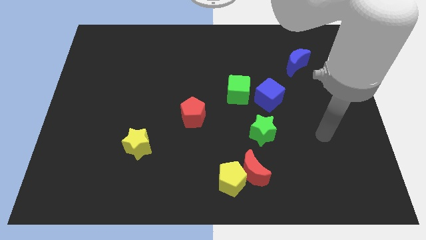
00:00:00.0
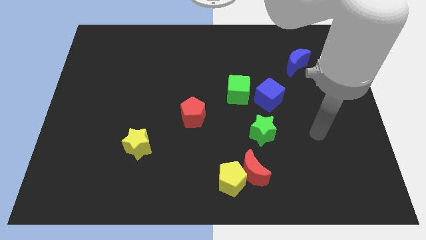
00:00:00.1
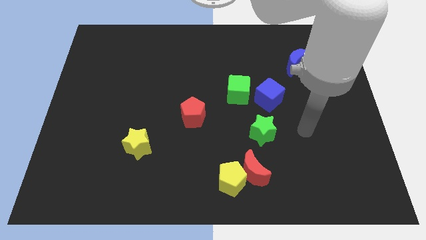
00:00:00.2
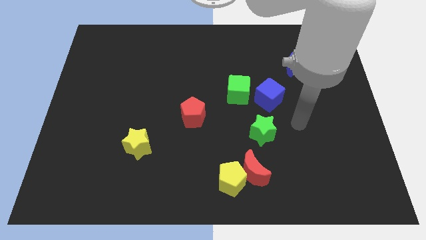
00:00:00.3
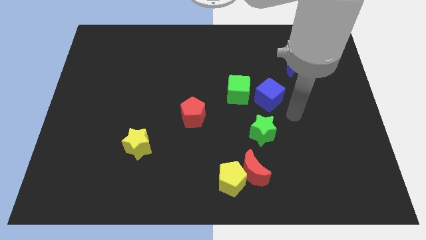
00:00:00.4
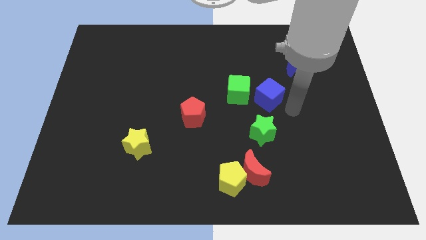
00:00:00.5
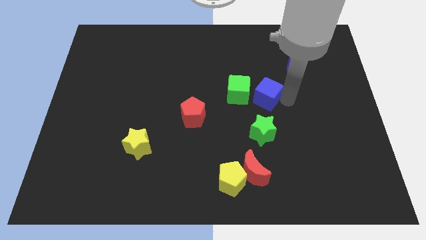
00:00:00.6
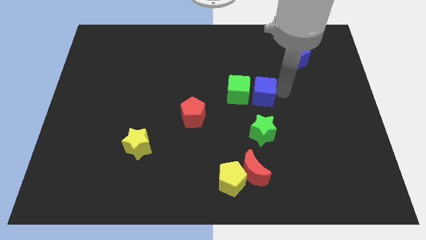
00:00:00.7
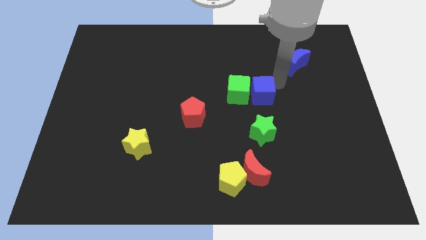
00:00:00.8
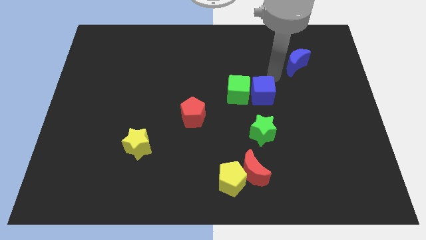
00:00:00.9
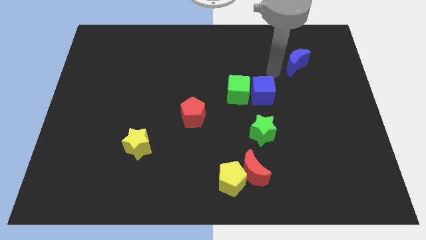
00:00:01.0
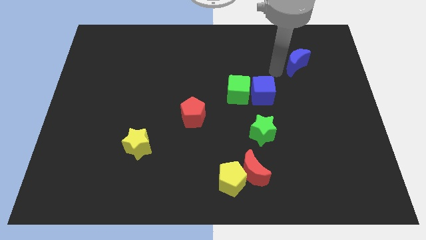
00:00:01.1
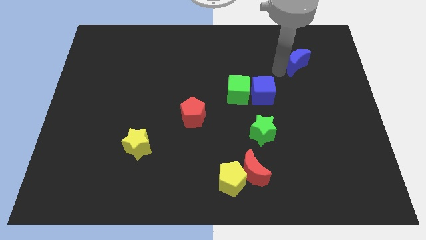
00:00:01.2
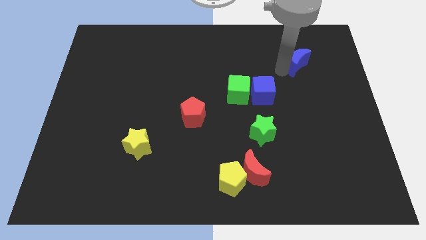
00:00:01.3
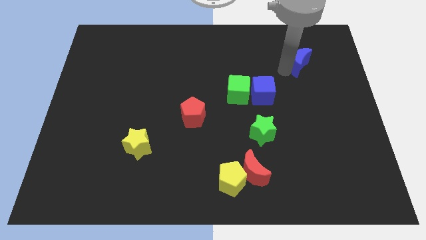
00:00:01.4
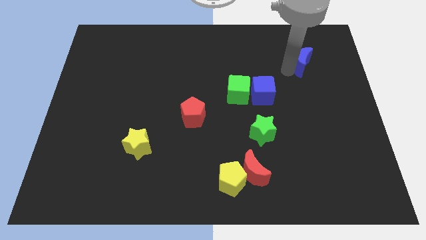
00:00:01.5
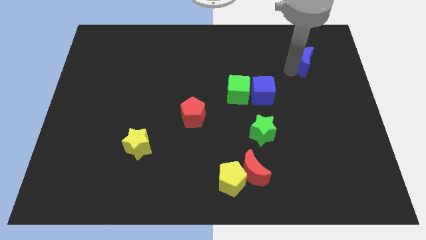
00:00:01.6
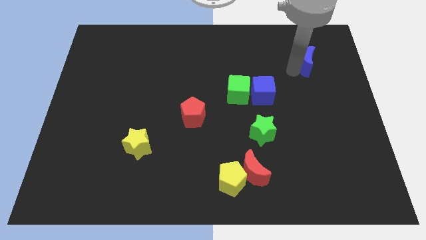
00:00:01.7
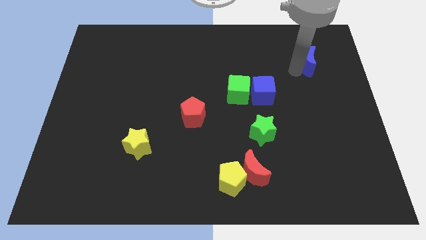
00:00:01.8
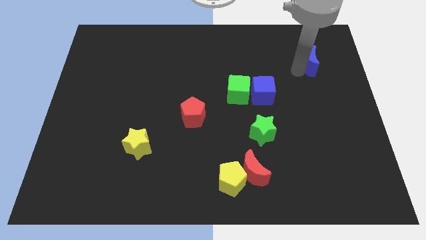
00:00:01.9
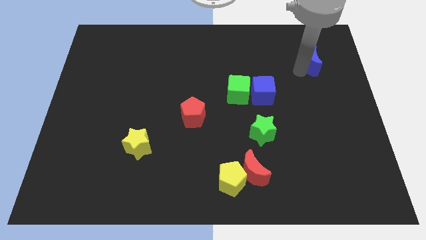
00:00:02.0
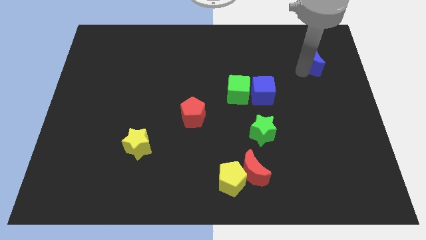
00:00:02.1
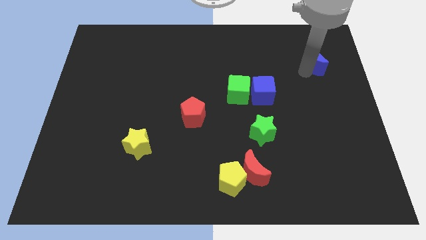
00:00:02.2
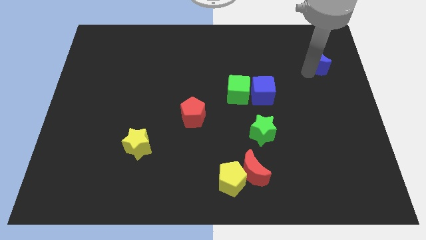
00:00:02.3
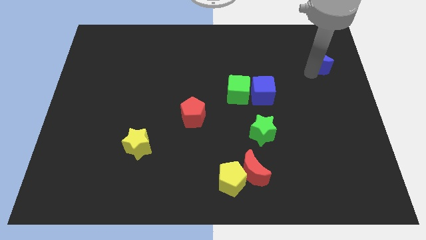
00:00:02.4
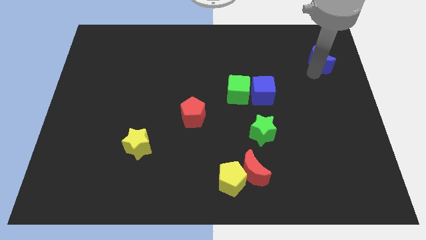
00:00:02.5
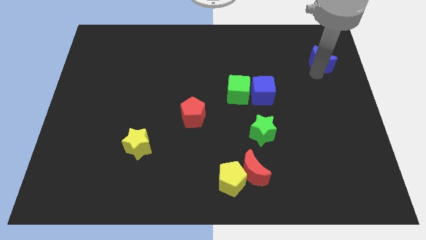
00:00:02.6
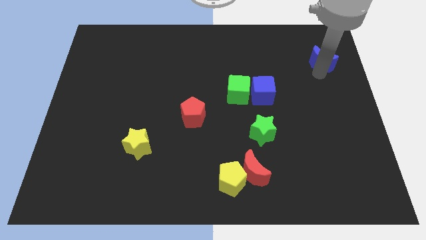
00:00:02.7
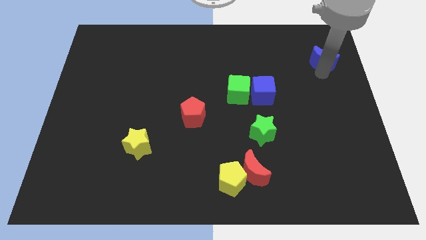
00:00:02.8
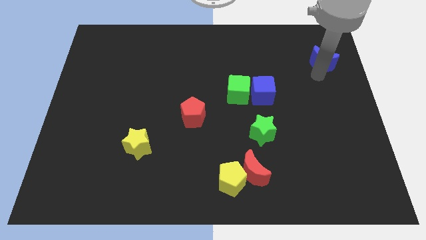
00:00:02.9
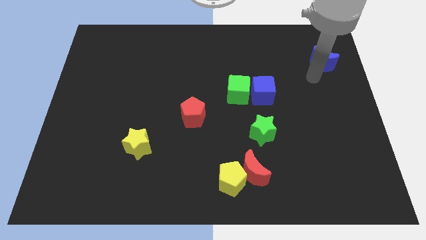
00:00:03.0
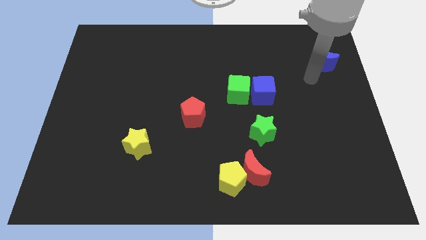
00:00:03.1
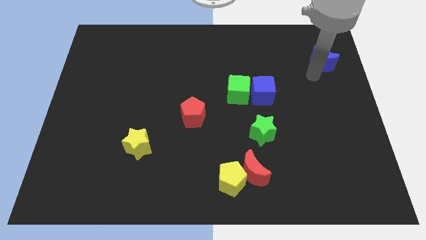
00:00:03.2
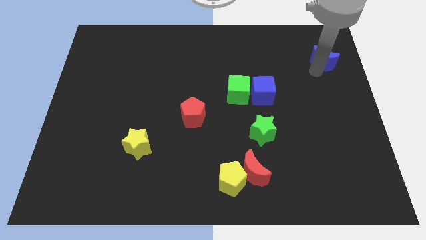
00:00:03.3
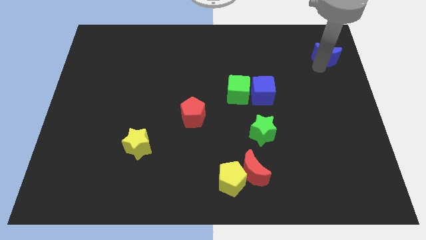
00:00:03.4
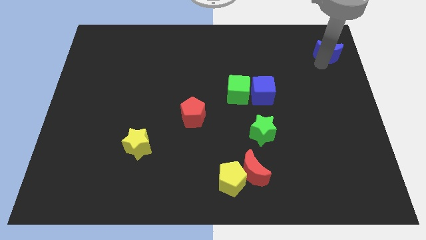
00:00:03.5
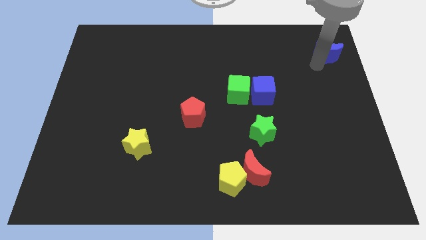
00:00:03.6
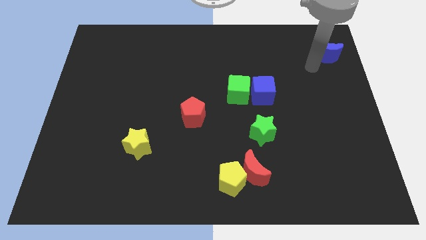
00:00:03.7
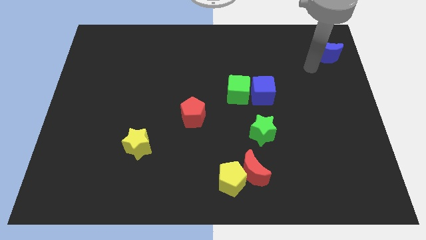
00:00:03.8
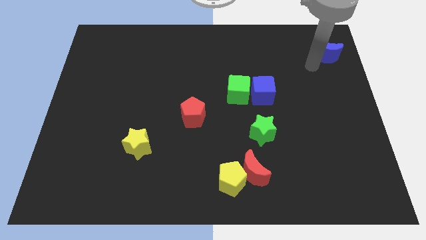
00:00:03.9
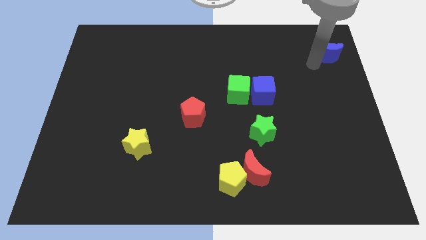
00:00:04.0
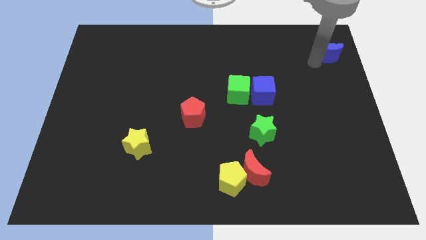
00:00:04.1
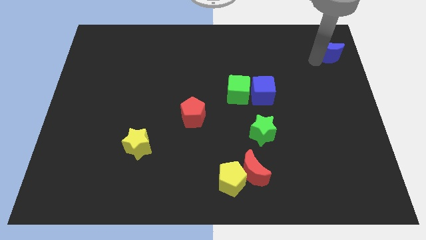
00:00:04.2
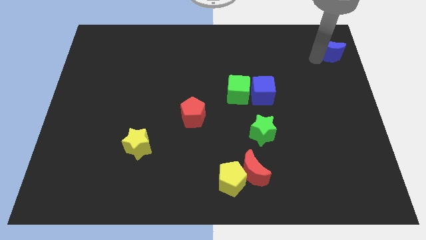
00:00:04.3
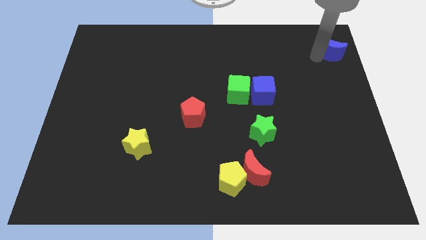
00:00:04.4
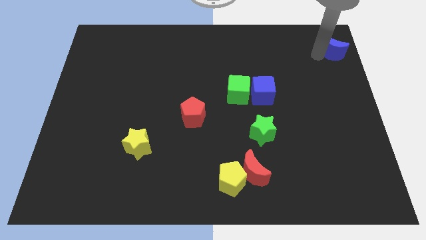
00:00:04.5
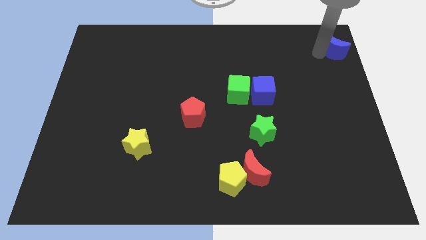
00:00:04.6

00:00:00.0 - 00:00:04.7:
move the blue moon to the top right

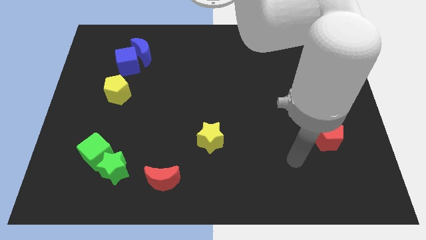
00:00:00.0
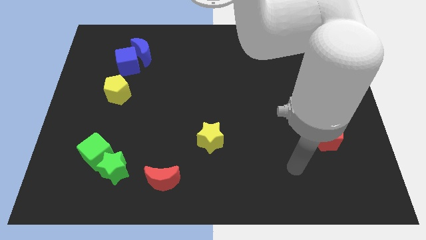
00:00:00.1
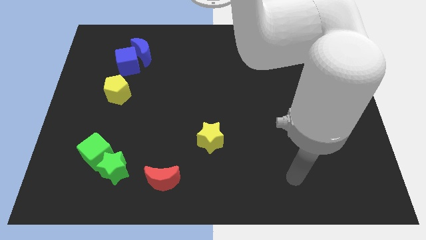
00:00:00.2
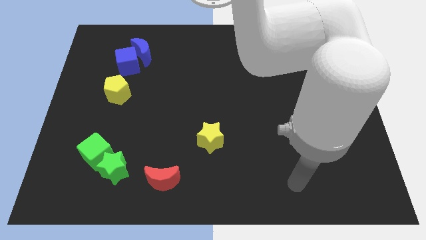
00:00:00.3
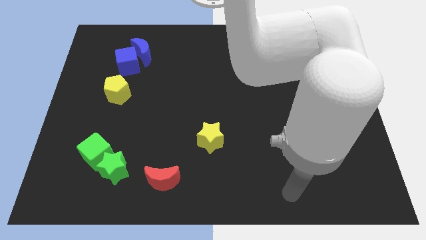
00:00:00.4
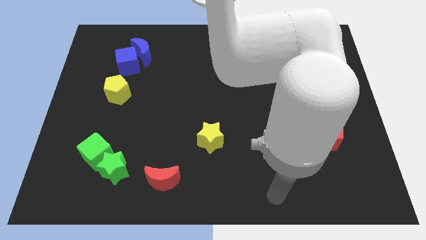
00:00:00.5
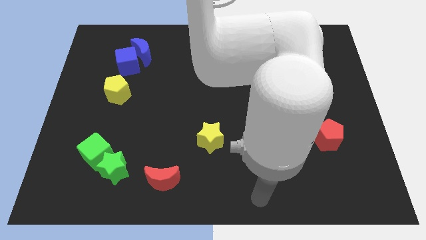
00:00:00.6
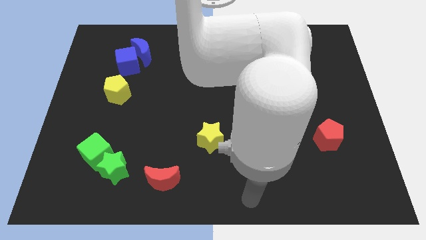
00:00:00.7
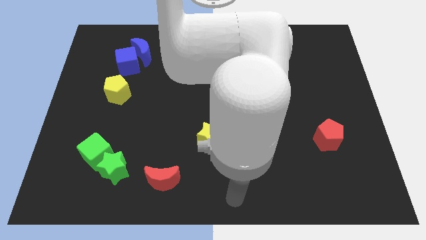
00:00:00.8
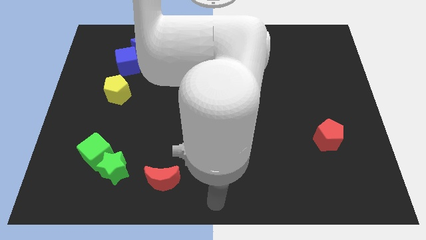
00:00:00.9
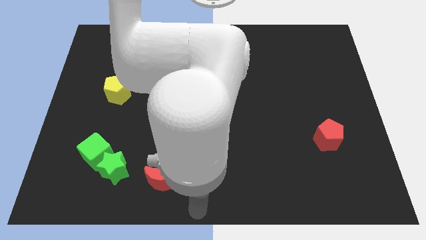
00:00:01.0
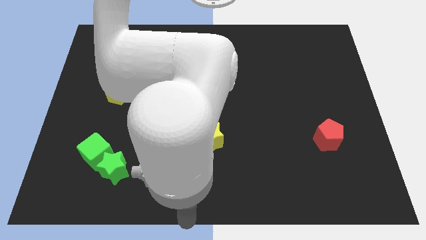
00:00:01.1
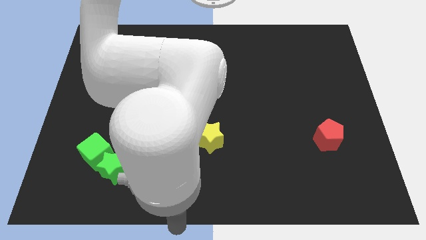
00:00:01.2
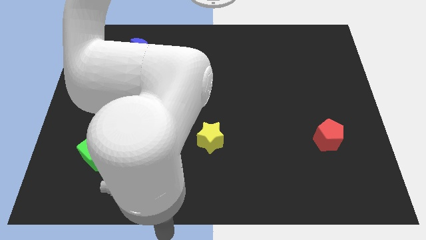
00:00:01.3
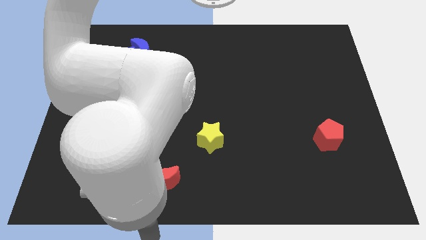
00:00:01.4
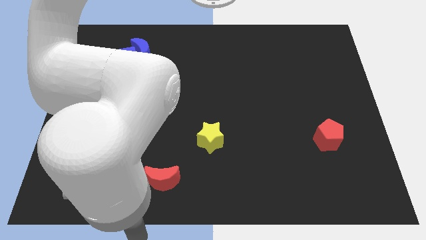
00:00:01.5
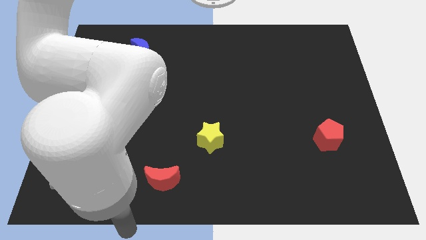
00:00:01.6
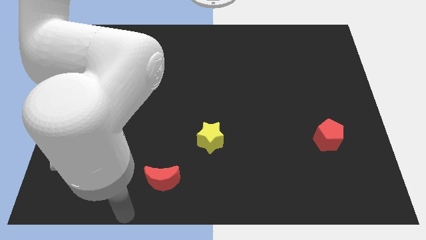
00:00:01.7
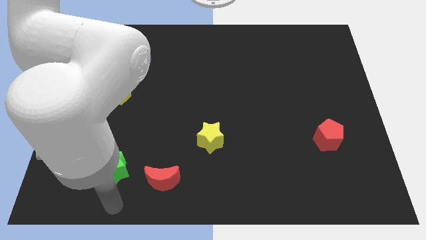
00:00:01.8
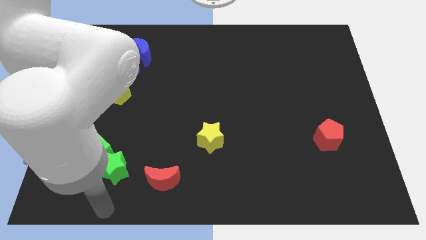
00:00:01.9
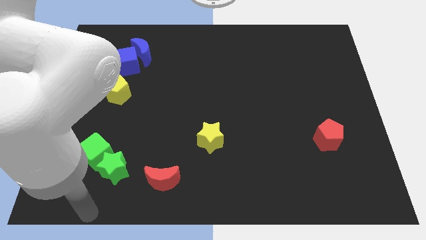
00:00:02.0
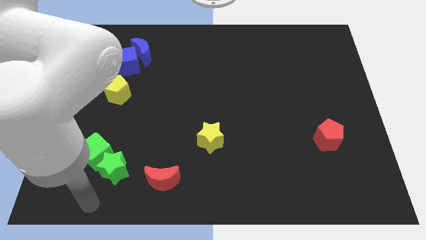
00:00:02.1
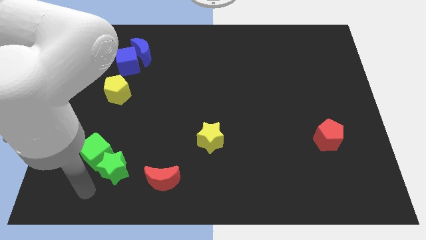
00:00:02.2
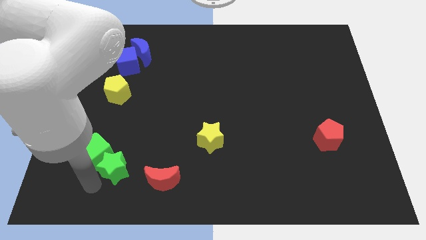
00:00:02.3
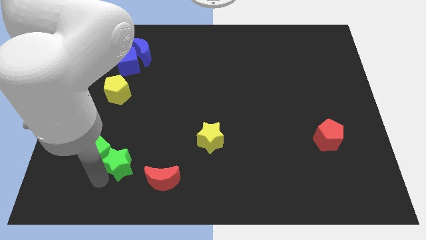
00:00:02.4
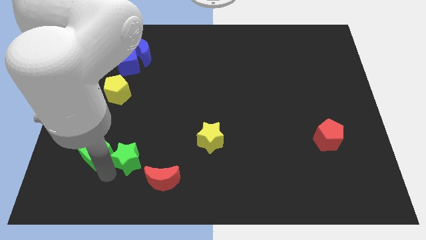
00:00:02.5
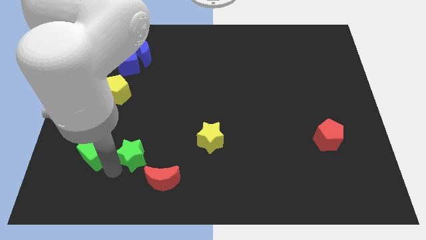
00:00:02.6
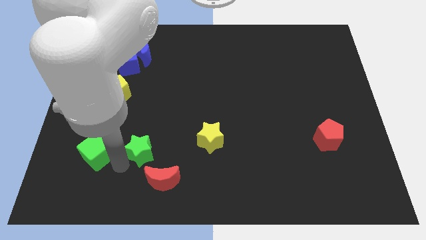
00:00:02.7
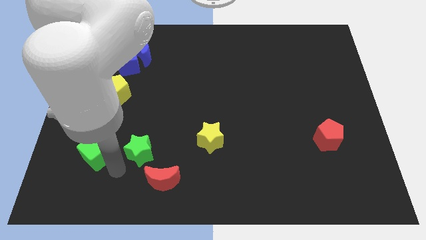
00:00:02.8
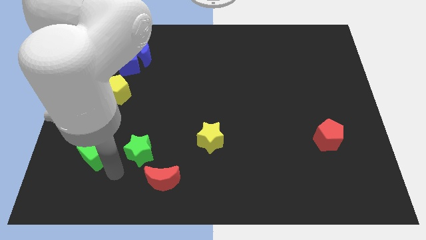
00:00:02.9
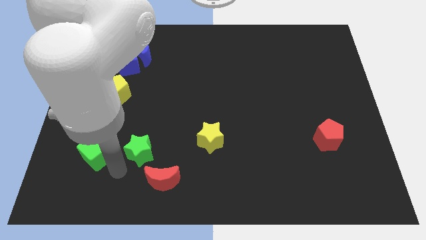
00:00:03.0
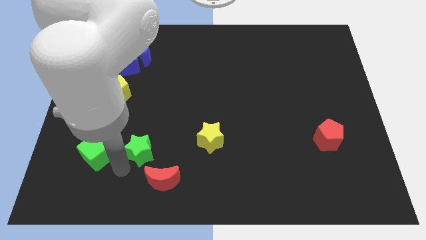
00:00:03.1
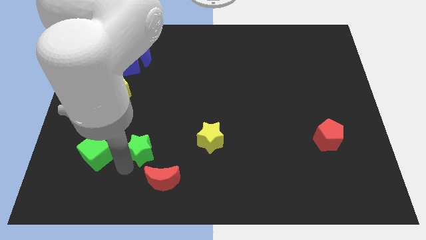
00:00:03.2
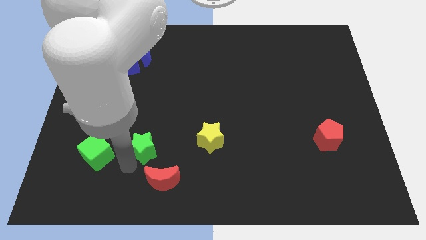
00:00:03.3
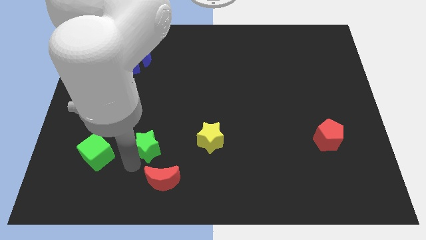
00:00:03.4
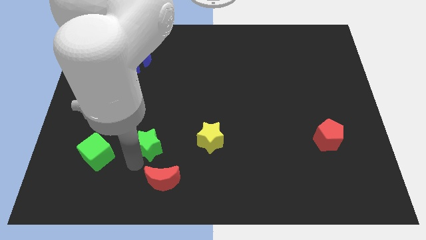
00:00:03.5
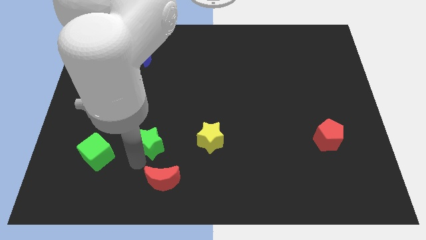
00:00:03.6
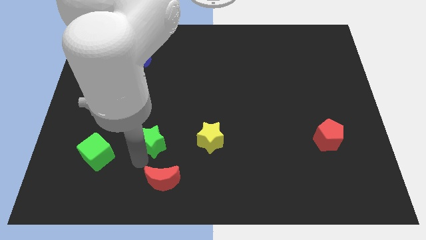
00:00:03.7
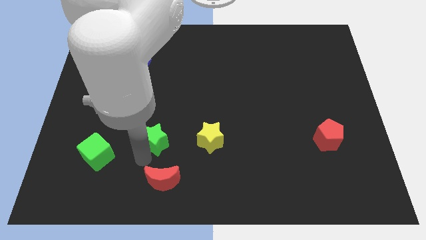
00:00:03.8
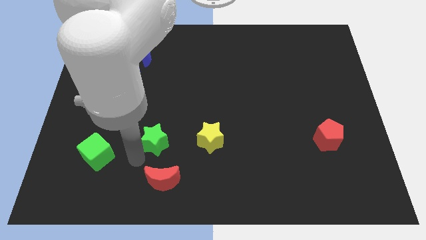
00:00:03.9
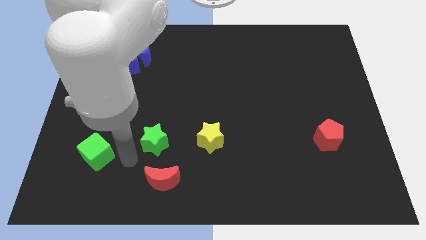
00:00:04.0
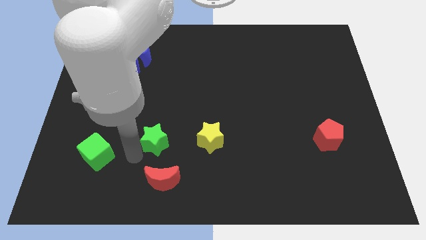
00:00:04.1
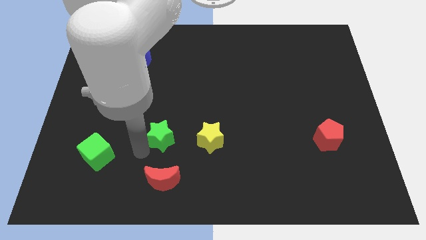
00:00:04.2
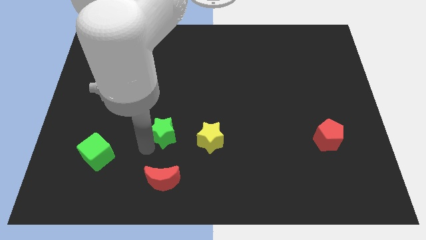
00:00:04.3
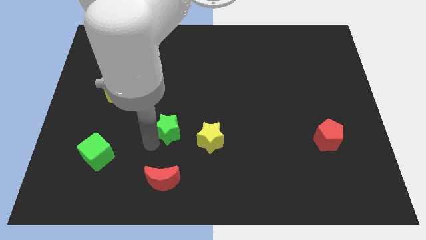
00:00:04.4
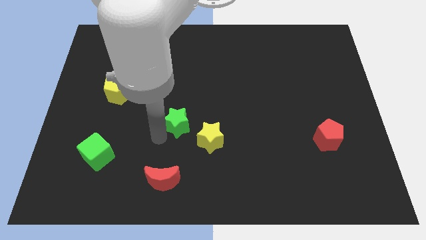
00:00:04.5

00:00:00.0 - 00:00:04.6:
push the green star to the middle
